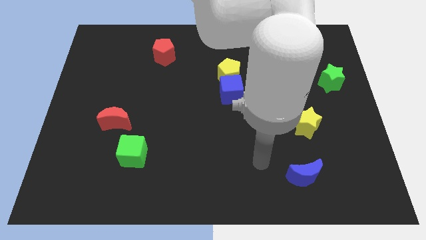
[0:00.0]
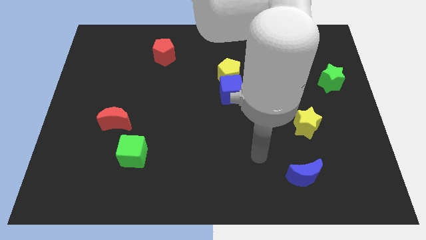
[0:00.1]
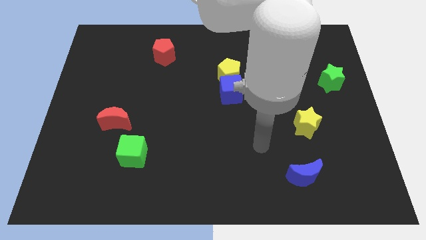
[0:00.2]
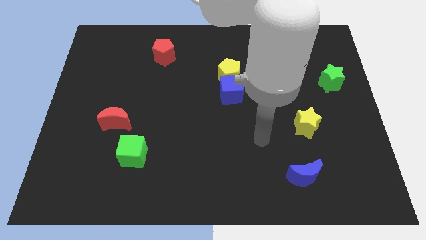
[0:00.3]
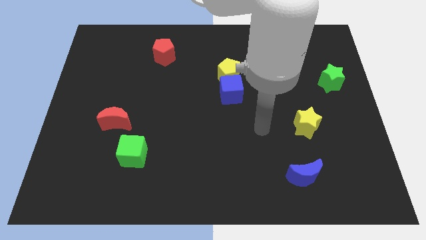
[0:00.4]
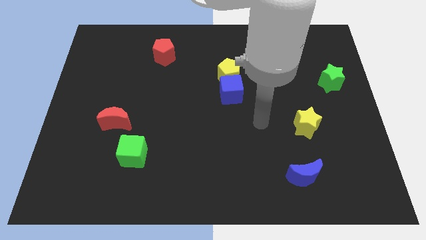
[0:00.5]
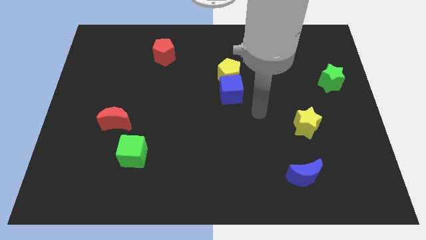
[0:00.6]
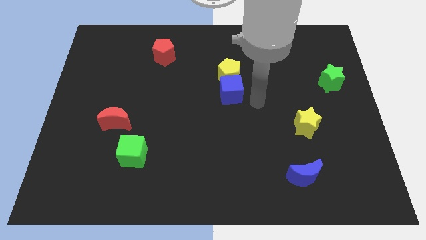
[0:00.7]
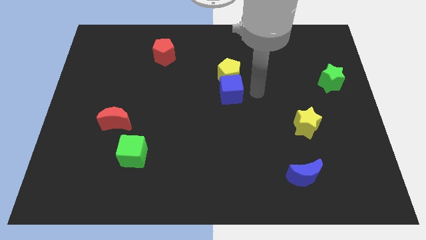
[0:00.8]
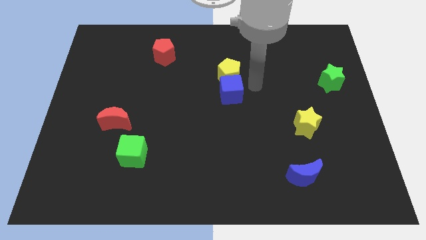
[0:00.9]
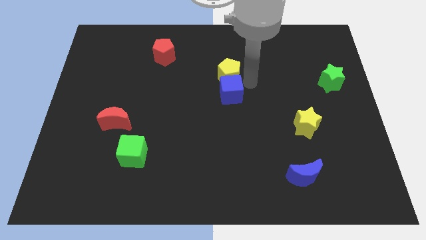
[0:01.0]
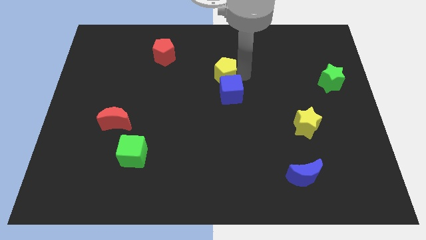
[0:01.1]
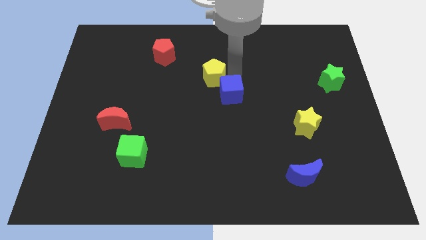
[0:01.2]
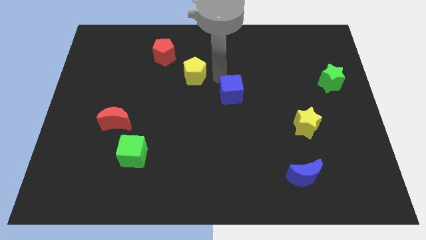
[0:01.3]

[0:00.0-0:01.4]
pull the blue cube apart from the yellow pentagon

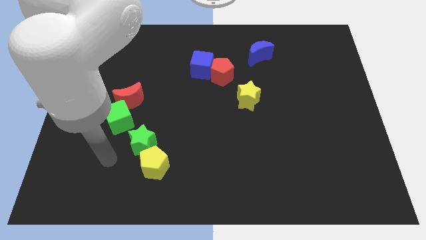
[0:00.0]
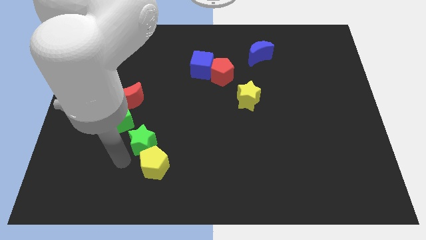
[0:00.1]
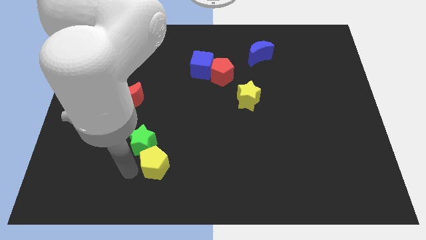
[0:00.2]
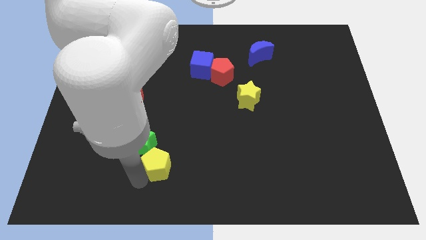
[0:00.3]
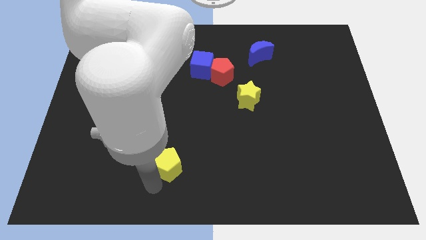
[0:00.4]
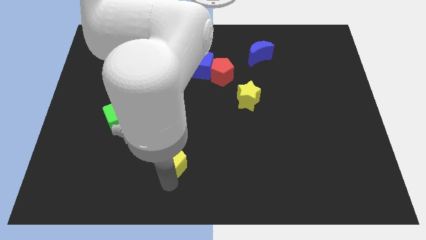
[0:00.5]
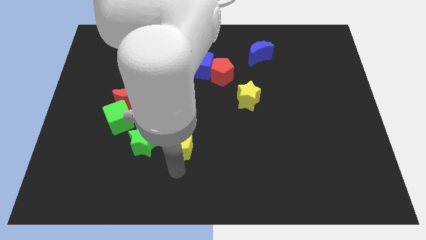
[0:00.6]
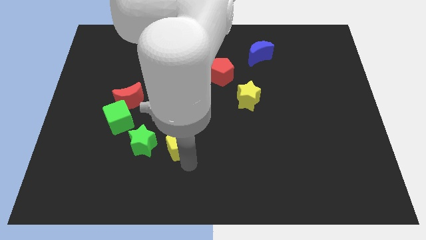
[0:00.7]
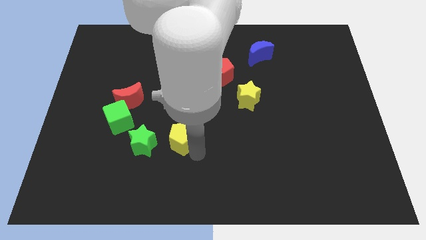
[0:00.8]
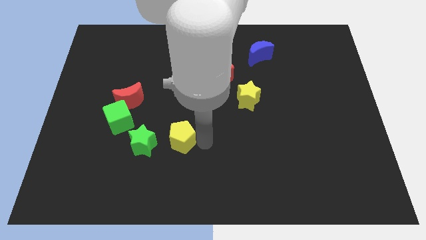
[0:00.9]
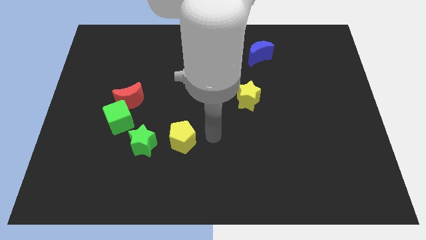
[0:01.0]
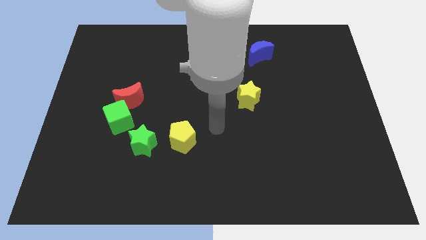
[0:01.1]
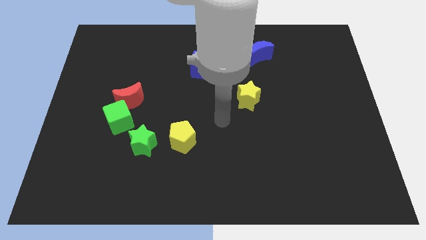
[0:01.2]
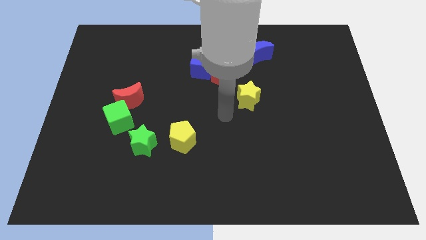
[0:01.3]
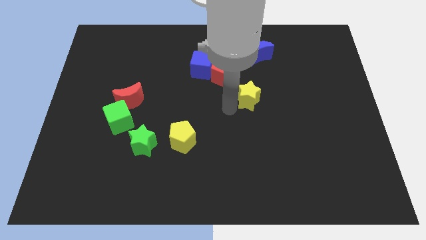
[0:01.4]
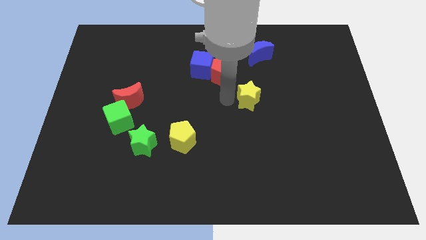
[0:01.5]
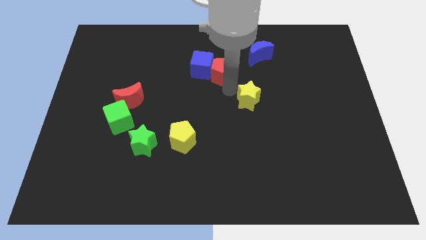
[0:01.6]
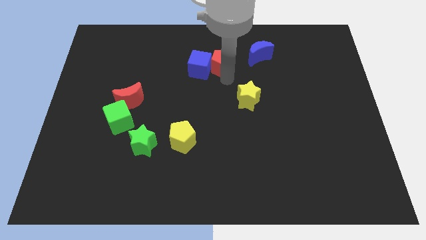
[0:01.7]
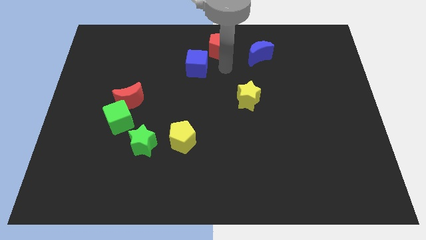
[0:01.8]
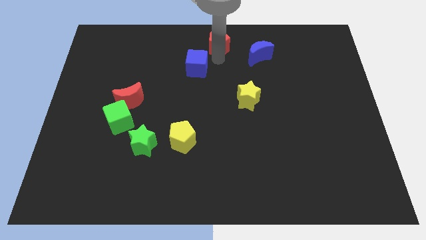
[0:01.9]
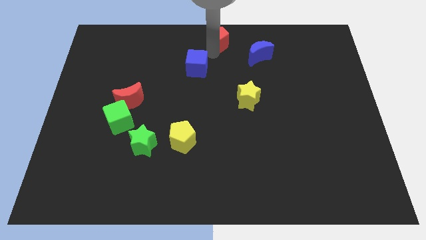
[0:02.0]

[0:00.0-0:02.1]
pull the blue cube apart from the red pentagon

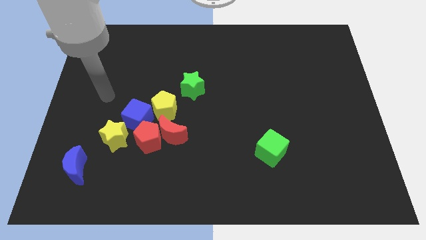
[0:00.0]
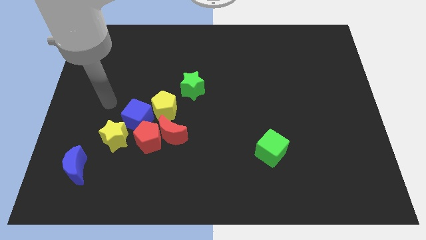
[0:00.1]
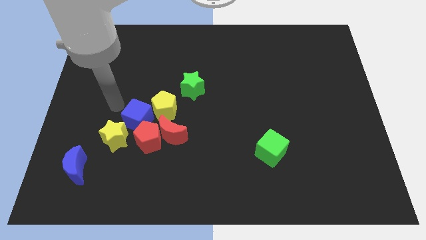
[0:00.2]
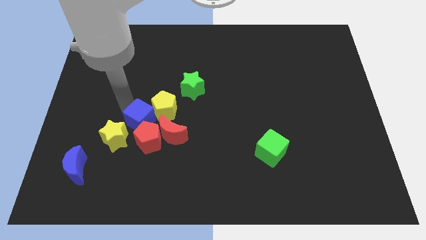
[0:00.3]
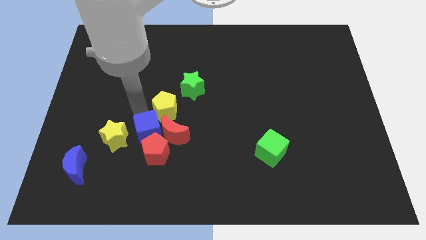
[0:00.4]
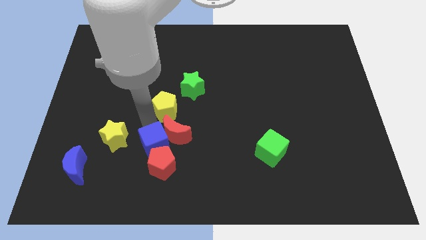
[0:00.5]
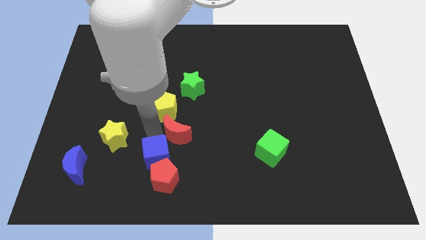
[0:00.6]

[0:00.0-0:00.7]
pull the red pentagon apart from the group

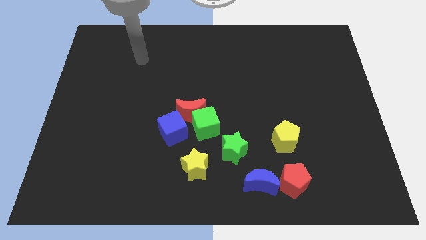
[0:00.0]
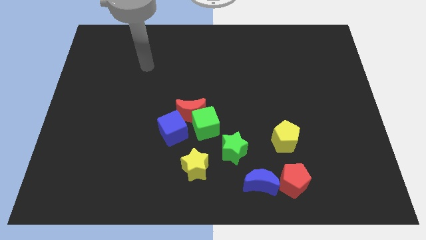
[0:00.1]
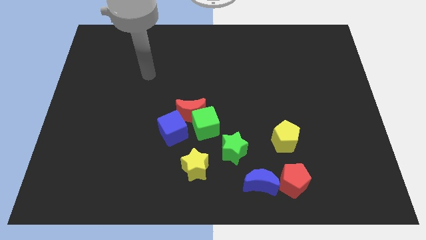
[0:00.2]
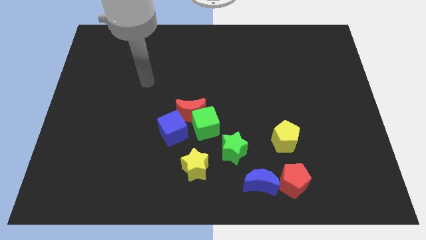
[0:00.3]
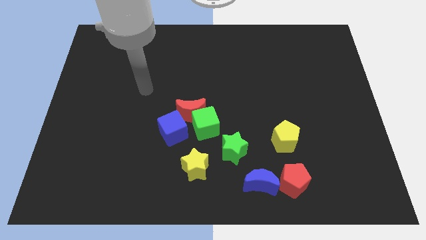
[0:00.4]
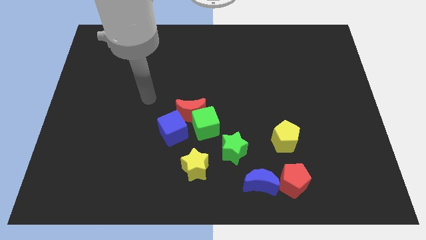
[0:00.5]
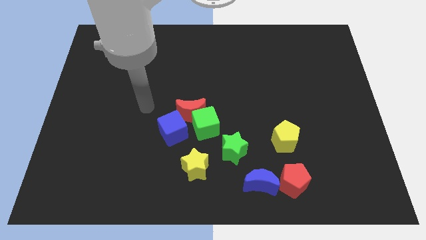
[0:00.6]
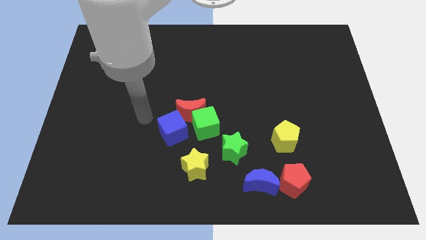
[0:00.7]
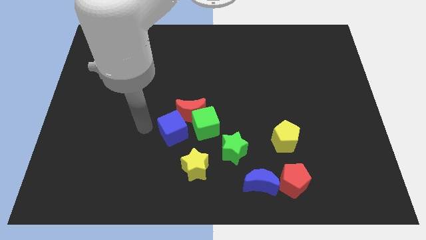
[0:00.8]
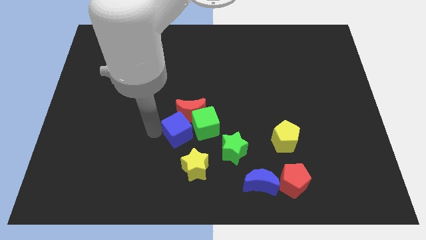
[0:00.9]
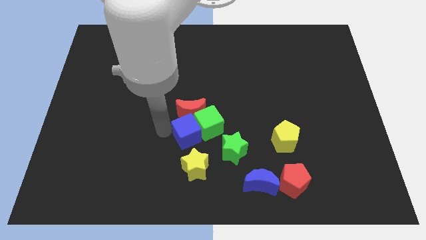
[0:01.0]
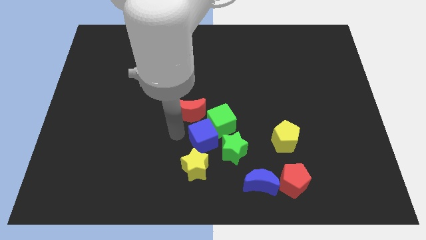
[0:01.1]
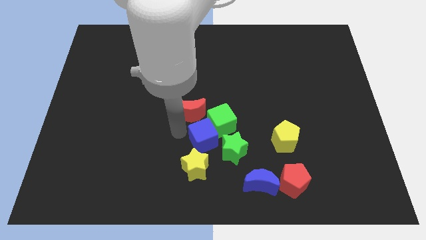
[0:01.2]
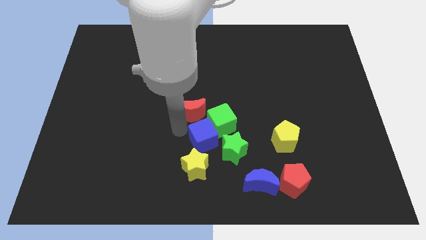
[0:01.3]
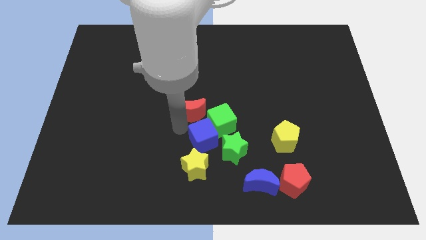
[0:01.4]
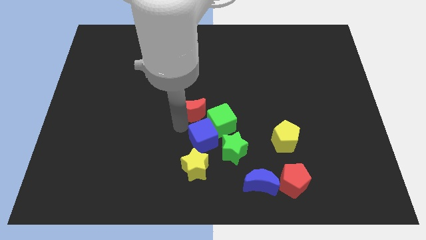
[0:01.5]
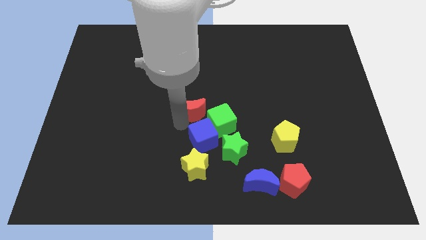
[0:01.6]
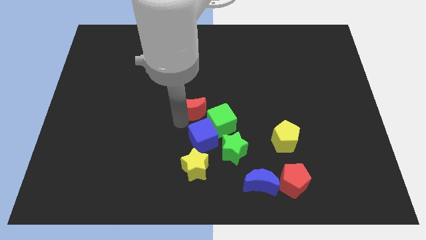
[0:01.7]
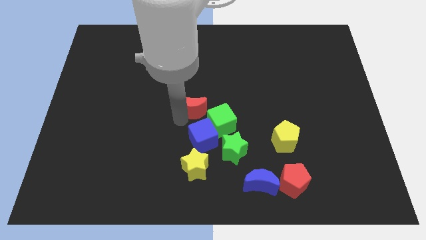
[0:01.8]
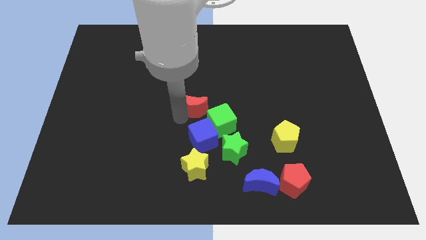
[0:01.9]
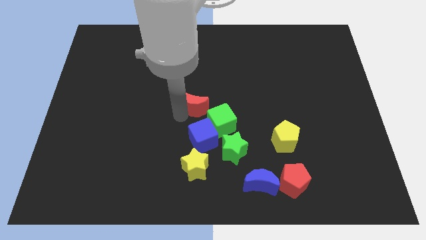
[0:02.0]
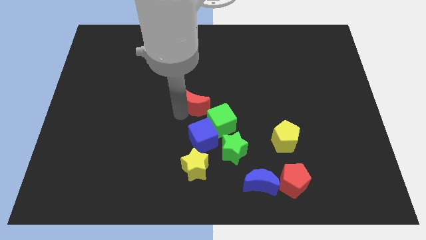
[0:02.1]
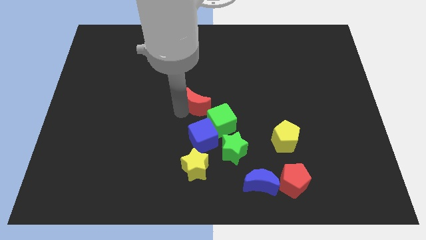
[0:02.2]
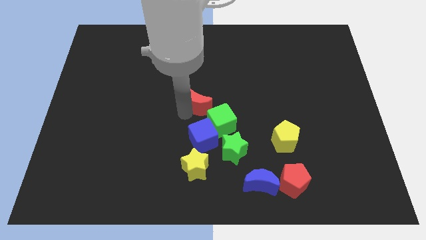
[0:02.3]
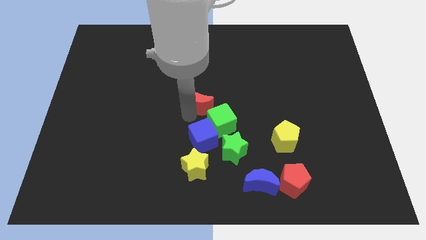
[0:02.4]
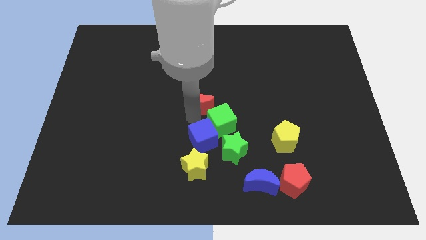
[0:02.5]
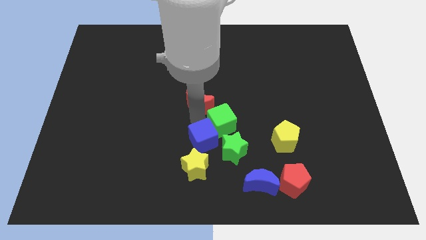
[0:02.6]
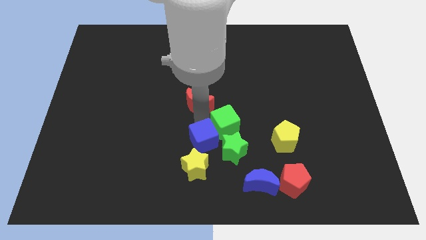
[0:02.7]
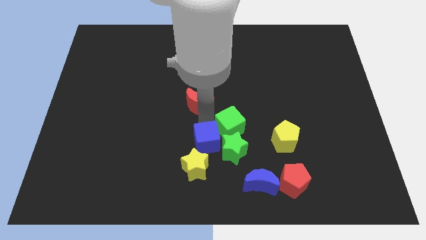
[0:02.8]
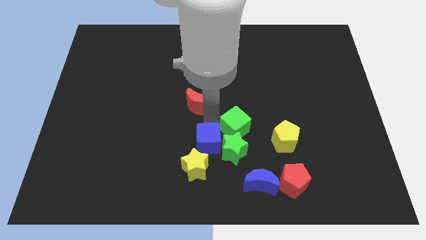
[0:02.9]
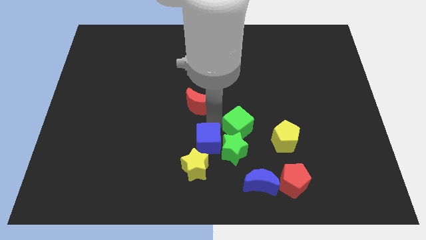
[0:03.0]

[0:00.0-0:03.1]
move the red moon away from the green cube and blue cube

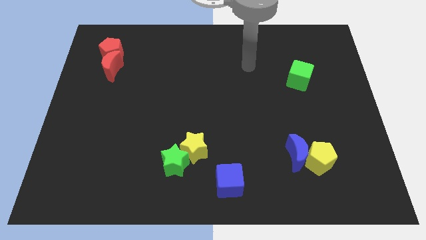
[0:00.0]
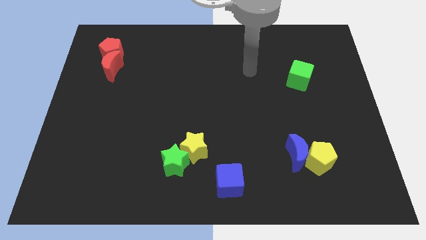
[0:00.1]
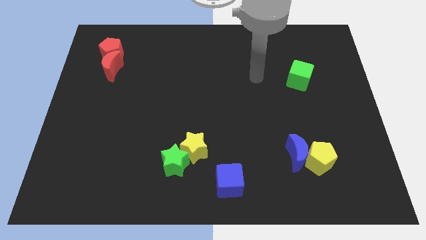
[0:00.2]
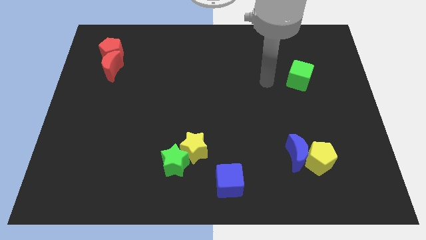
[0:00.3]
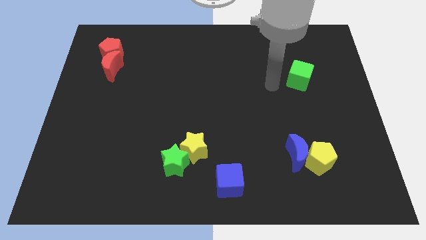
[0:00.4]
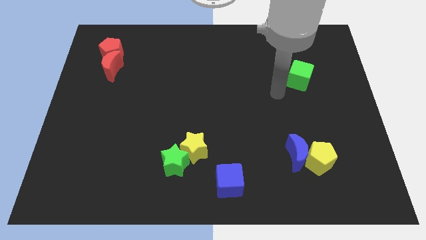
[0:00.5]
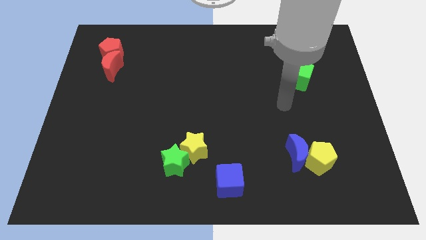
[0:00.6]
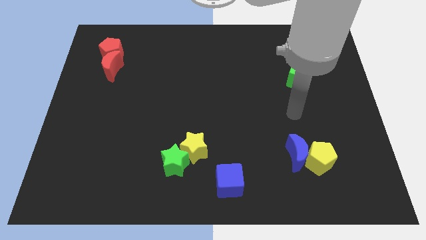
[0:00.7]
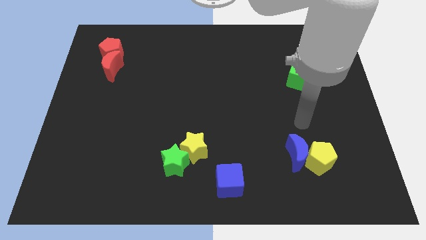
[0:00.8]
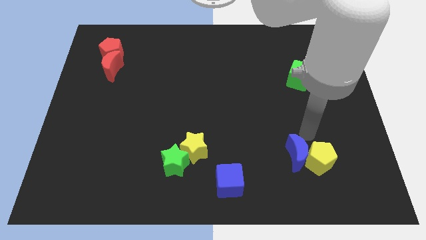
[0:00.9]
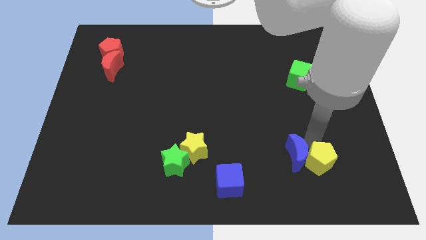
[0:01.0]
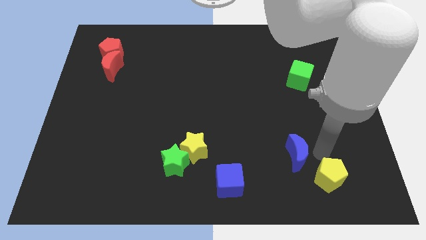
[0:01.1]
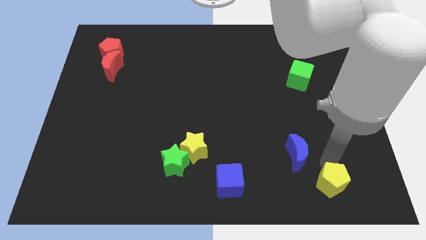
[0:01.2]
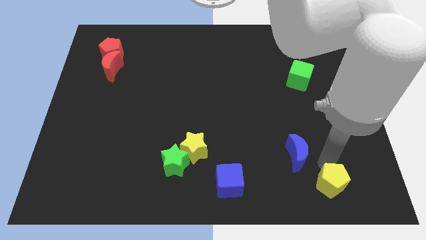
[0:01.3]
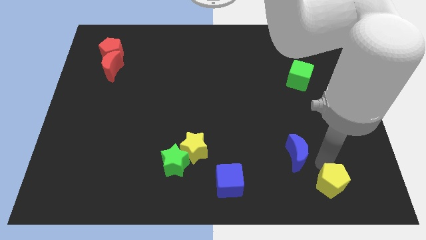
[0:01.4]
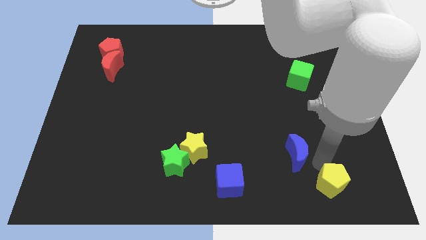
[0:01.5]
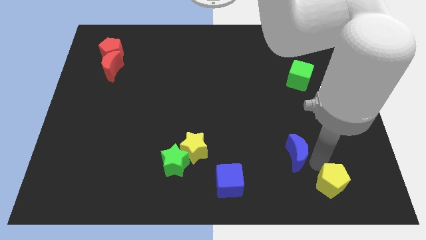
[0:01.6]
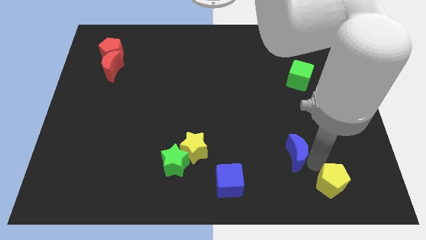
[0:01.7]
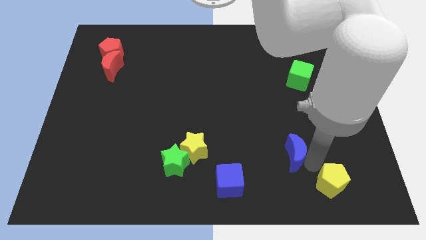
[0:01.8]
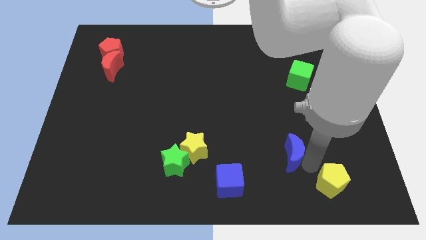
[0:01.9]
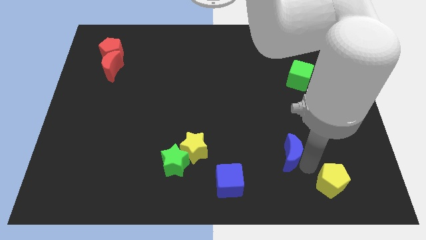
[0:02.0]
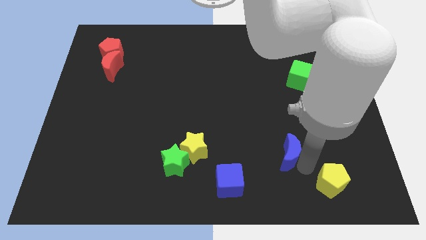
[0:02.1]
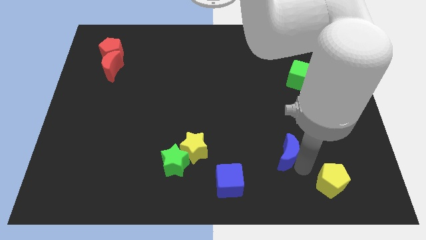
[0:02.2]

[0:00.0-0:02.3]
pull the blue moon apart from the yellow pentagon
